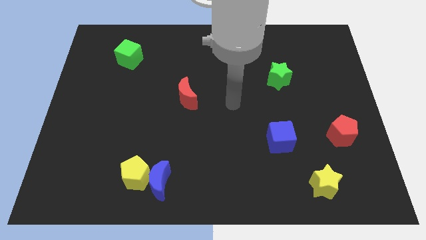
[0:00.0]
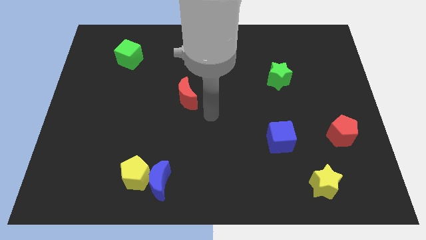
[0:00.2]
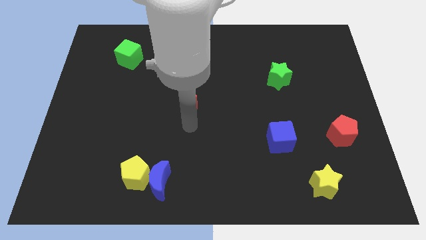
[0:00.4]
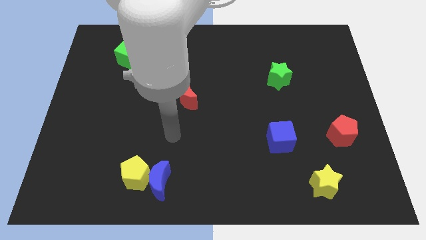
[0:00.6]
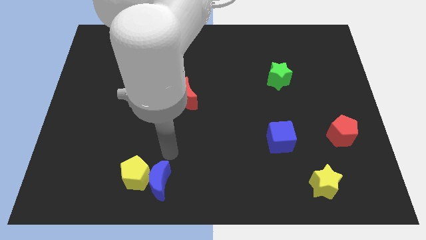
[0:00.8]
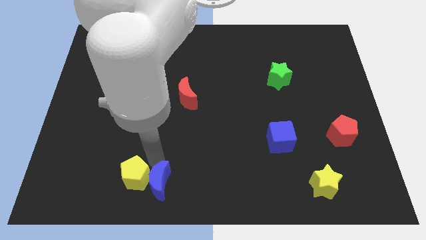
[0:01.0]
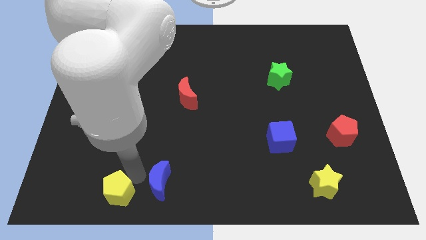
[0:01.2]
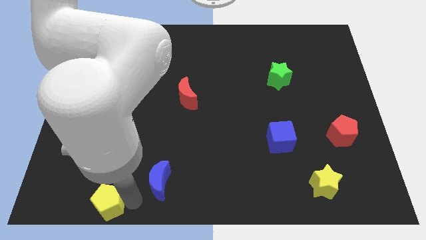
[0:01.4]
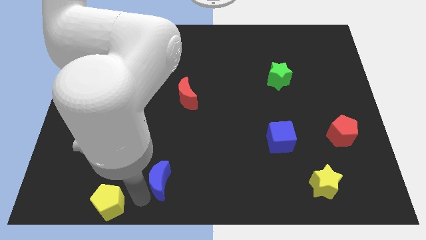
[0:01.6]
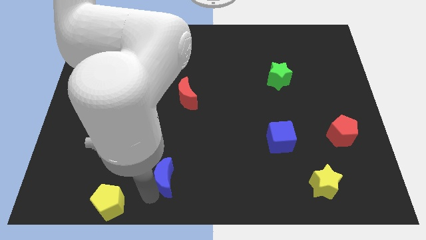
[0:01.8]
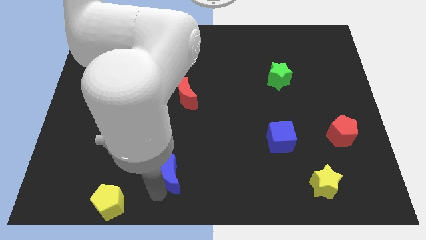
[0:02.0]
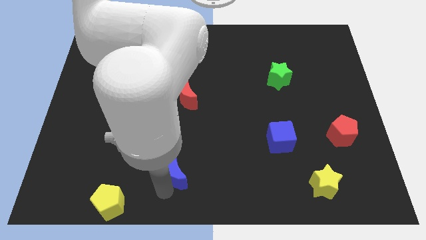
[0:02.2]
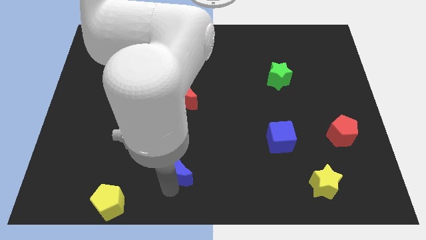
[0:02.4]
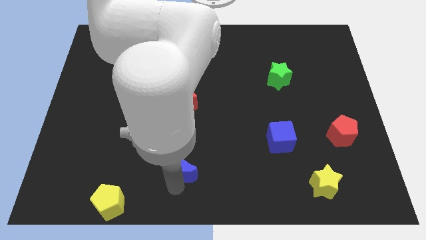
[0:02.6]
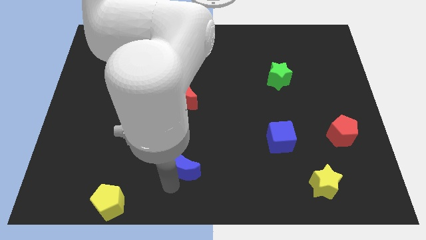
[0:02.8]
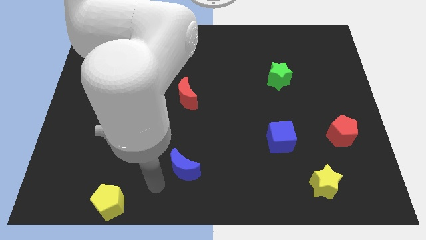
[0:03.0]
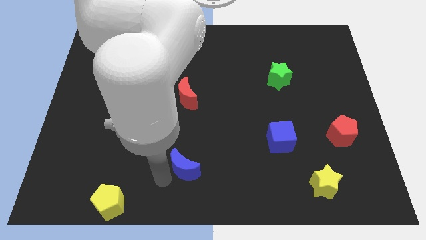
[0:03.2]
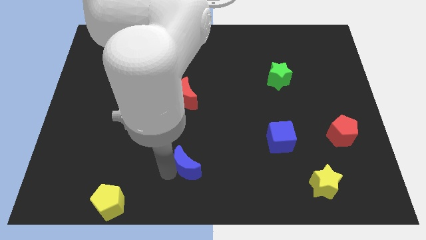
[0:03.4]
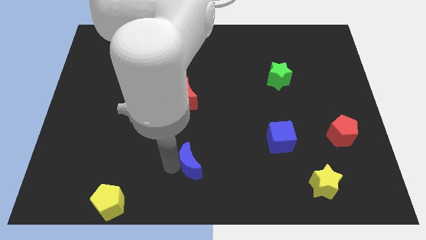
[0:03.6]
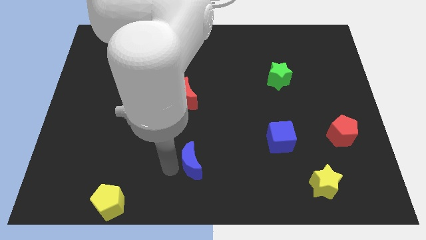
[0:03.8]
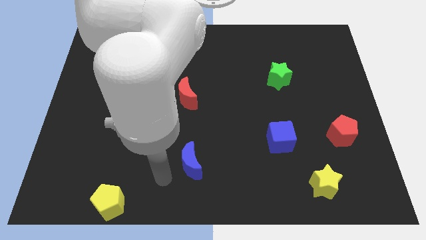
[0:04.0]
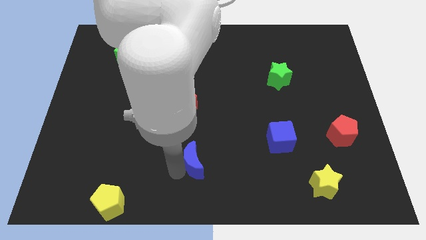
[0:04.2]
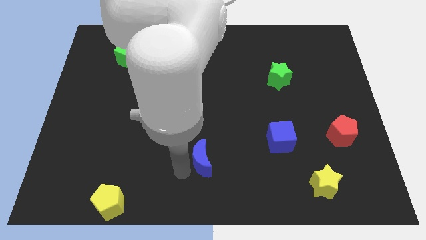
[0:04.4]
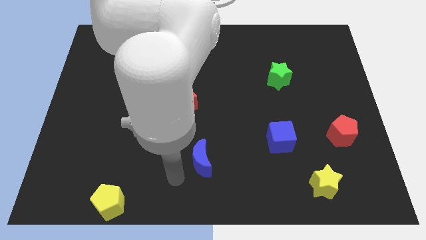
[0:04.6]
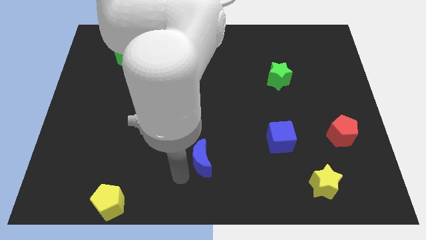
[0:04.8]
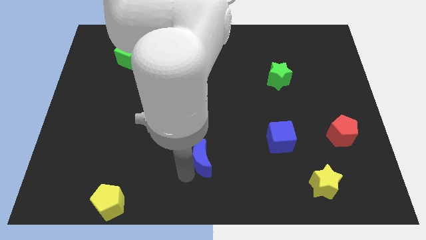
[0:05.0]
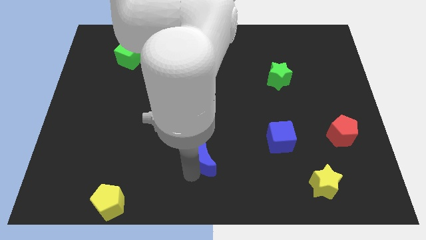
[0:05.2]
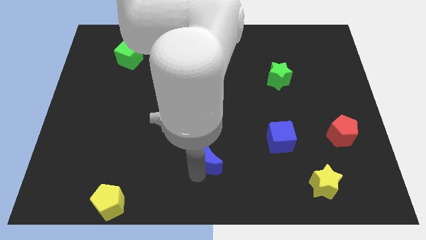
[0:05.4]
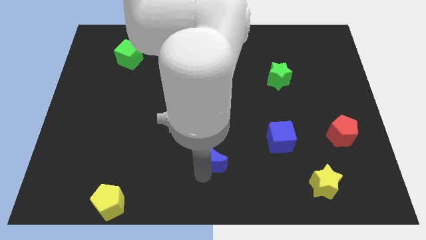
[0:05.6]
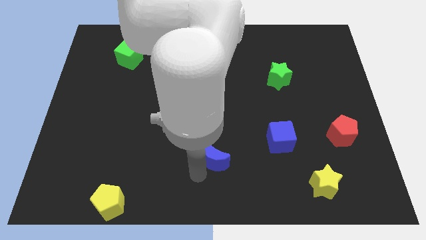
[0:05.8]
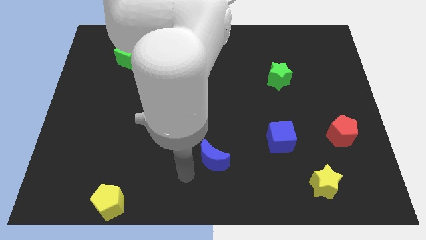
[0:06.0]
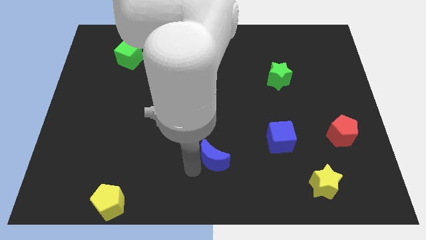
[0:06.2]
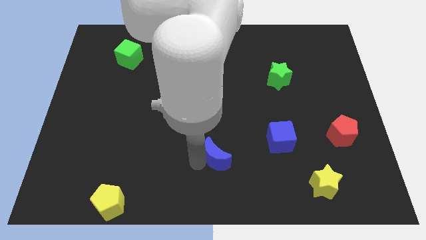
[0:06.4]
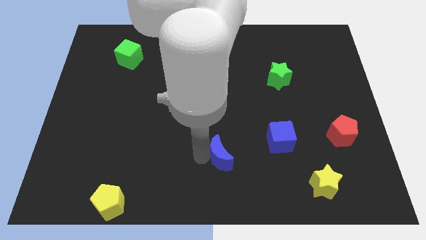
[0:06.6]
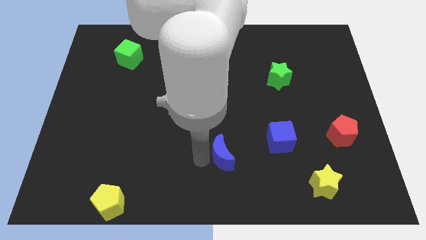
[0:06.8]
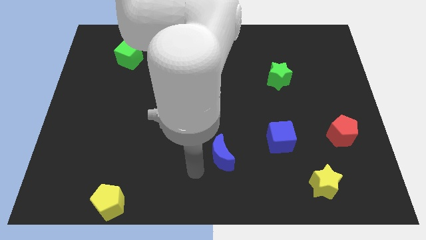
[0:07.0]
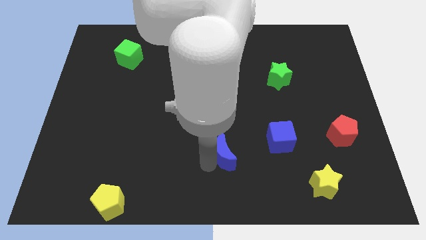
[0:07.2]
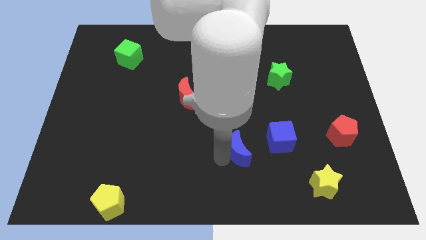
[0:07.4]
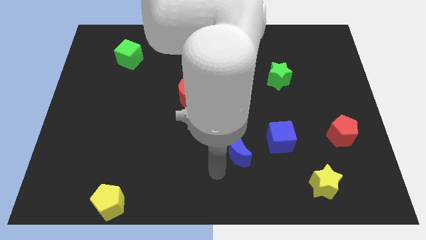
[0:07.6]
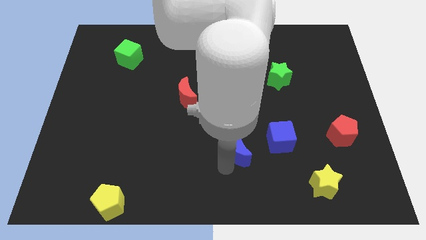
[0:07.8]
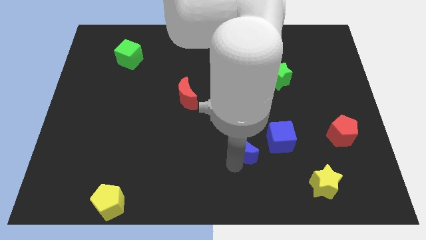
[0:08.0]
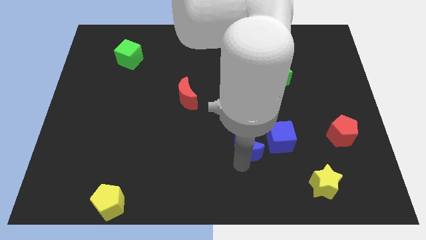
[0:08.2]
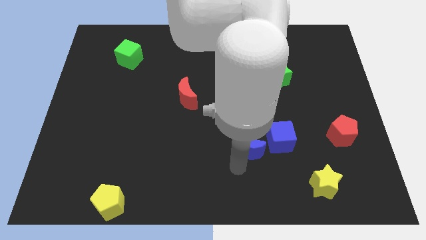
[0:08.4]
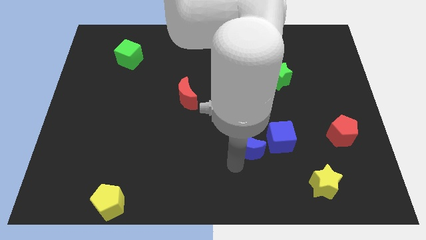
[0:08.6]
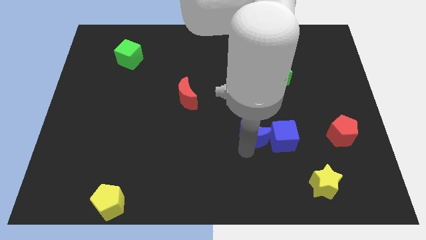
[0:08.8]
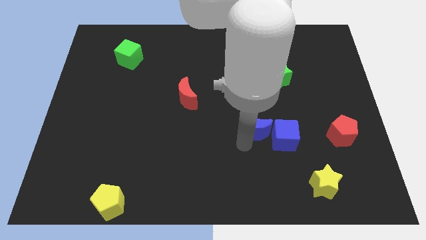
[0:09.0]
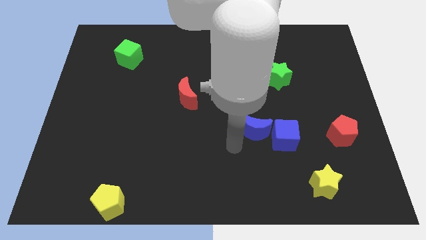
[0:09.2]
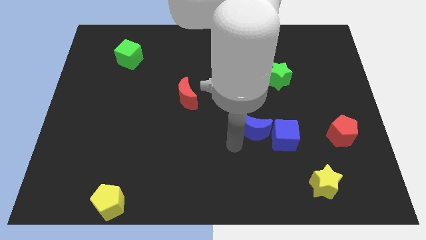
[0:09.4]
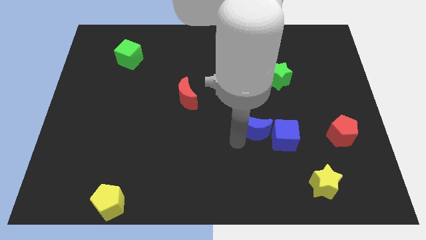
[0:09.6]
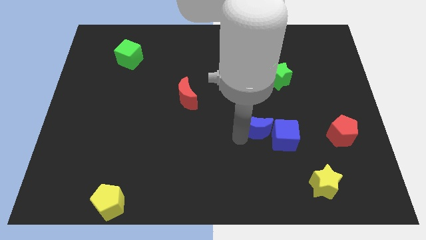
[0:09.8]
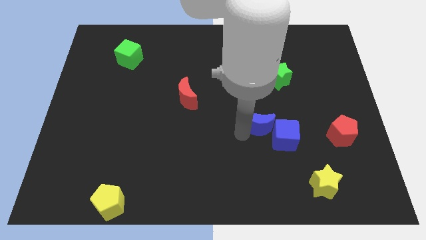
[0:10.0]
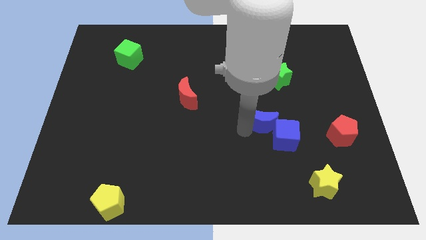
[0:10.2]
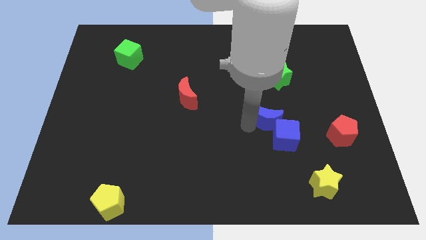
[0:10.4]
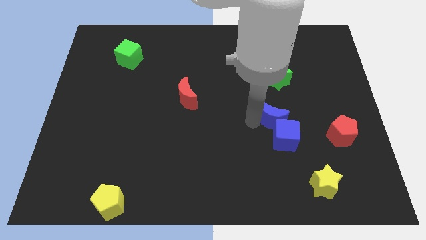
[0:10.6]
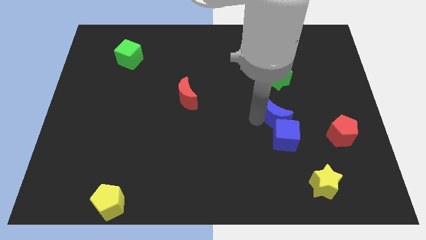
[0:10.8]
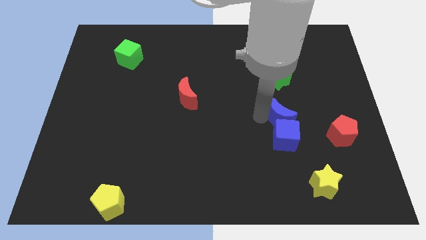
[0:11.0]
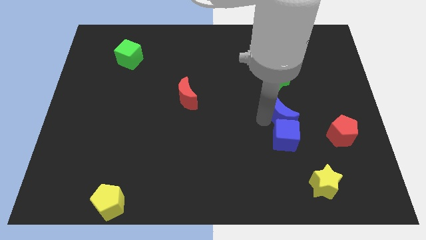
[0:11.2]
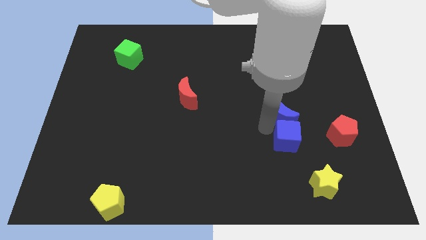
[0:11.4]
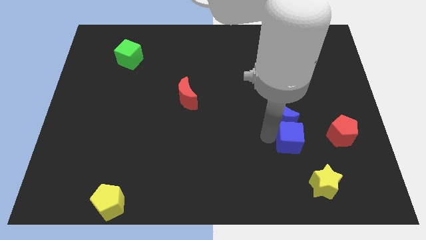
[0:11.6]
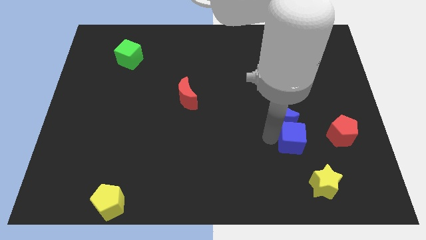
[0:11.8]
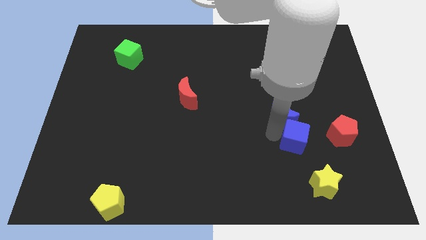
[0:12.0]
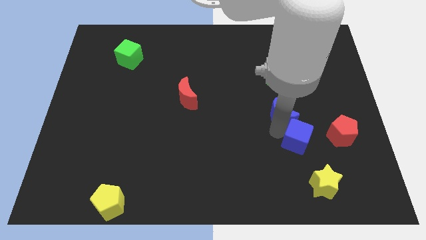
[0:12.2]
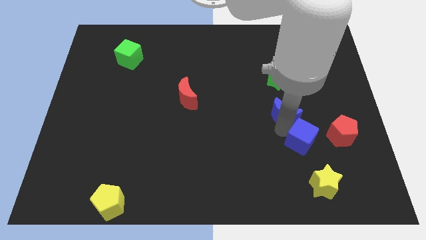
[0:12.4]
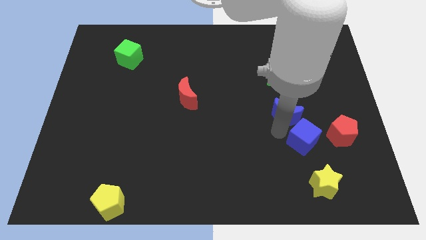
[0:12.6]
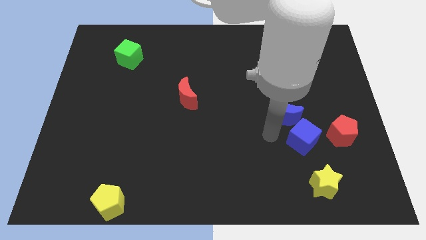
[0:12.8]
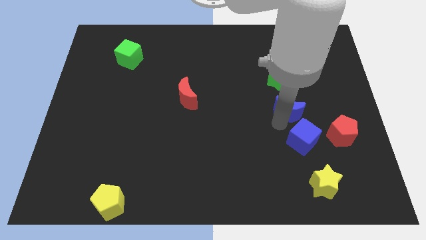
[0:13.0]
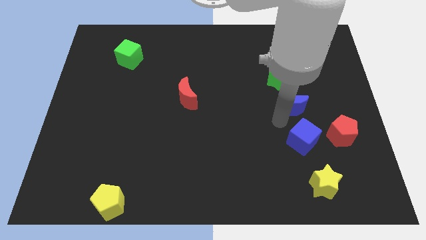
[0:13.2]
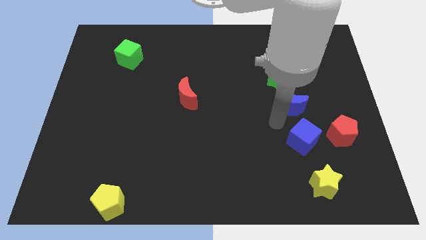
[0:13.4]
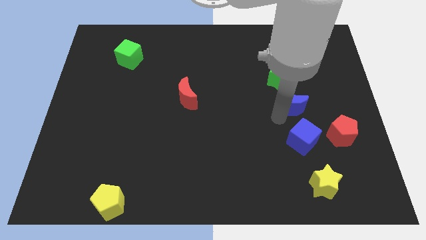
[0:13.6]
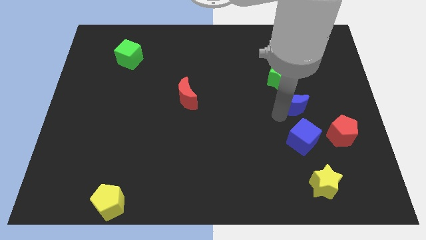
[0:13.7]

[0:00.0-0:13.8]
slide the blue moon to the bottom right of the green star
